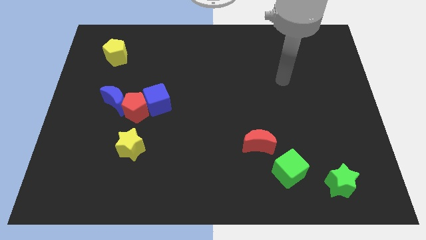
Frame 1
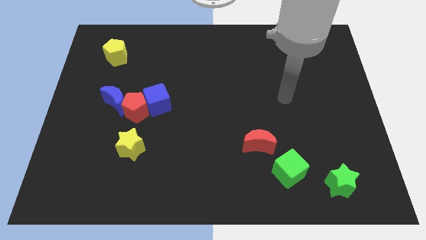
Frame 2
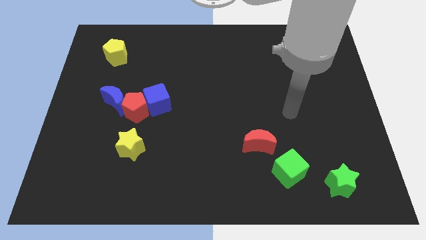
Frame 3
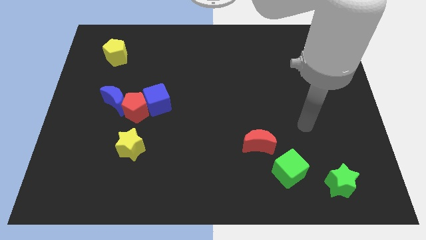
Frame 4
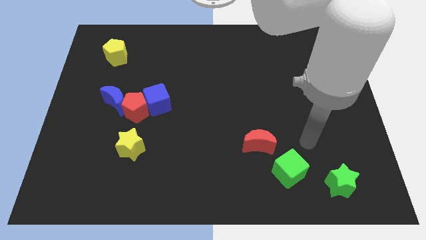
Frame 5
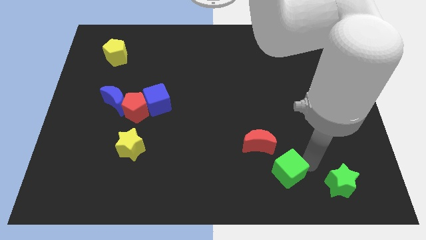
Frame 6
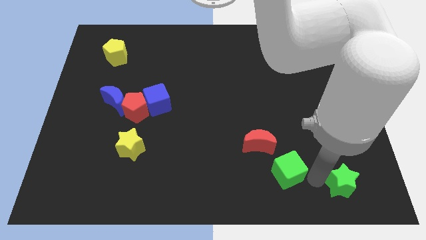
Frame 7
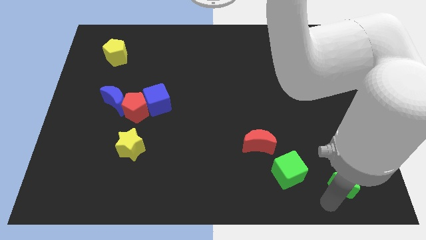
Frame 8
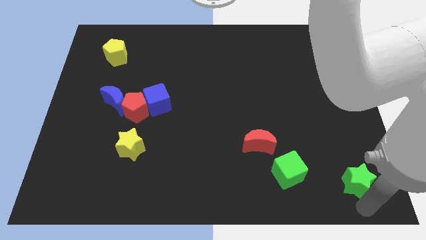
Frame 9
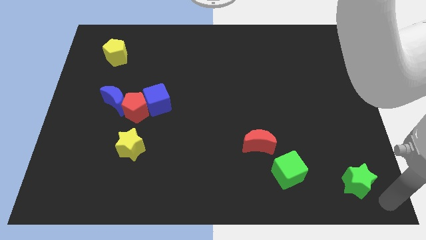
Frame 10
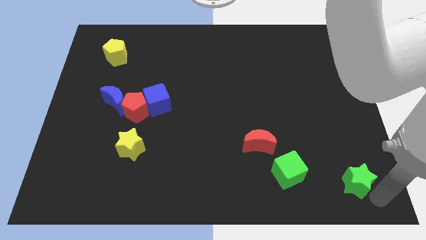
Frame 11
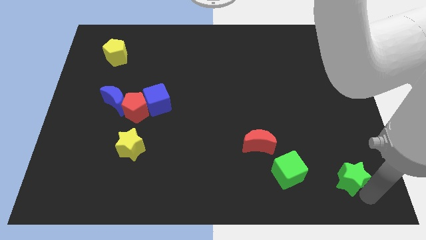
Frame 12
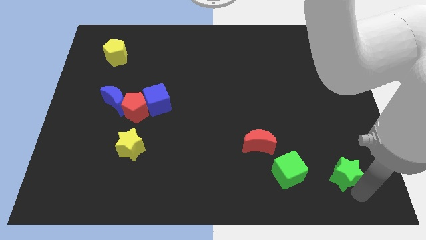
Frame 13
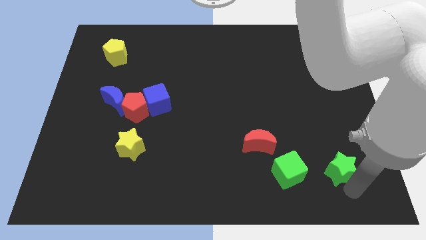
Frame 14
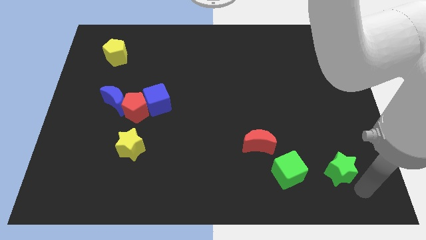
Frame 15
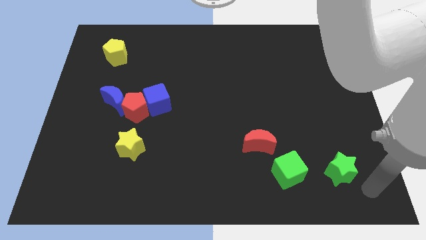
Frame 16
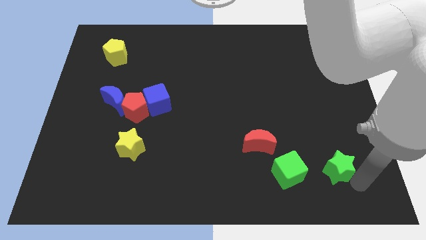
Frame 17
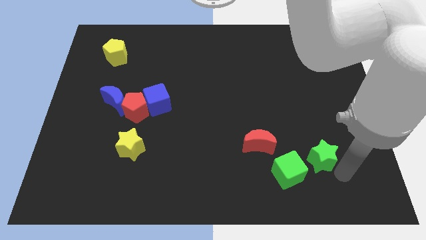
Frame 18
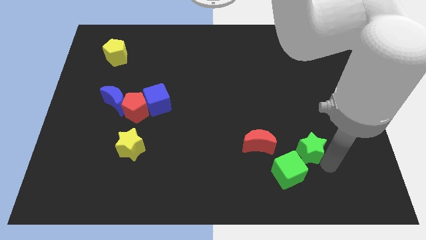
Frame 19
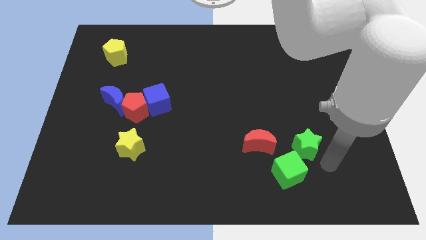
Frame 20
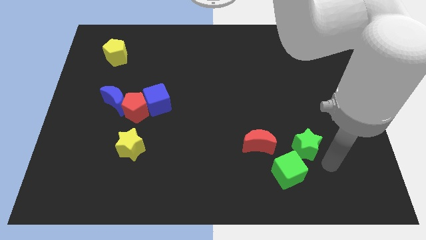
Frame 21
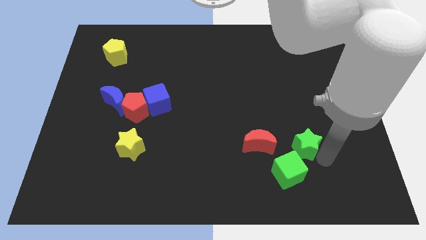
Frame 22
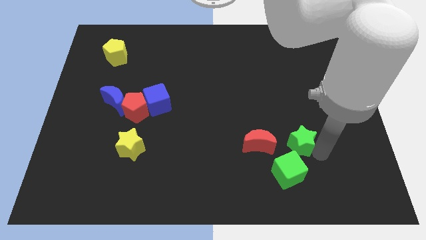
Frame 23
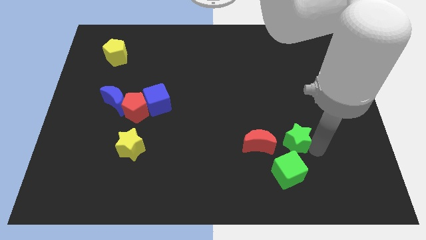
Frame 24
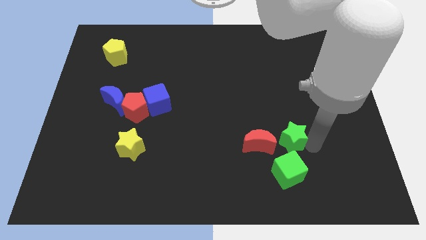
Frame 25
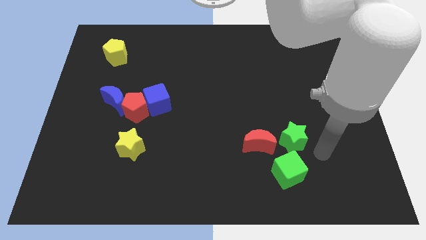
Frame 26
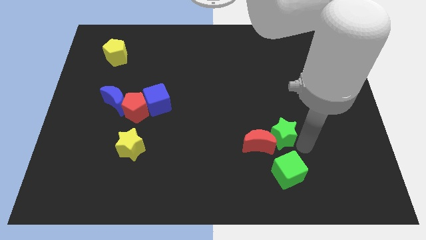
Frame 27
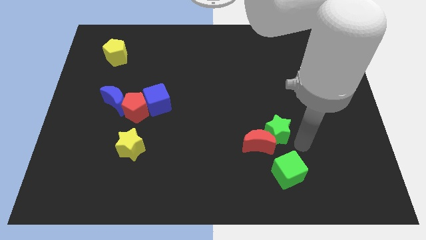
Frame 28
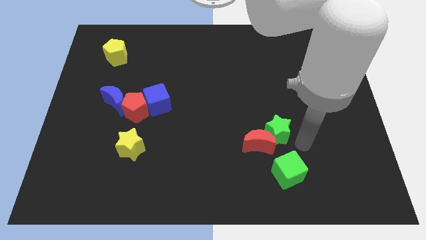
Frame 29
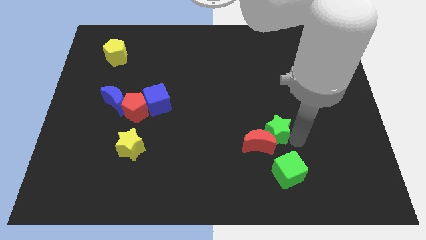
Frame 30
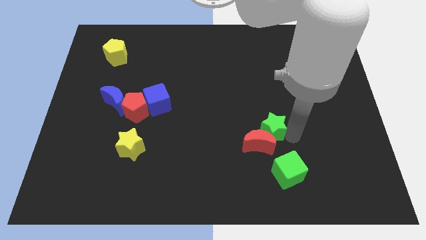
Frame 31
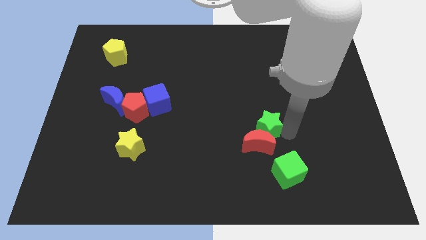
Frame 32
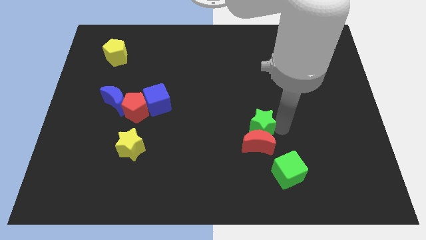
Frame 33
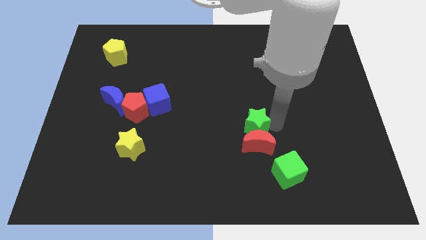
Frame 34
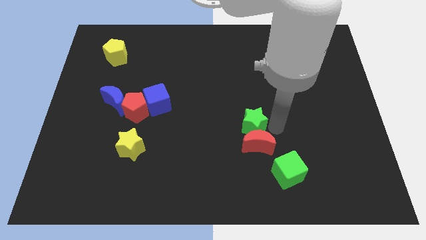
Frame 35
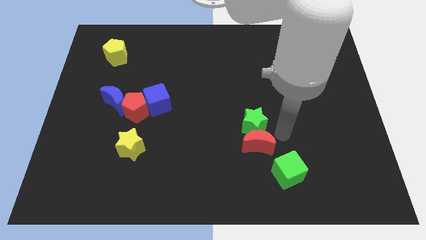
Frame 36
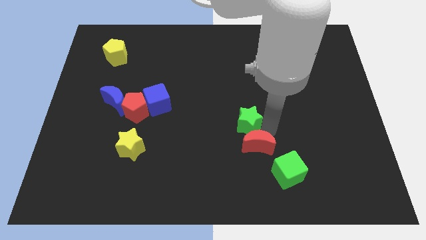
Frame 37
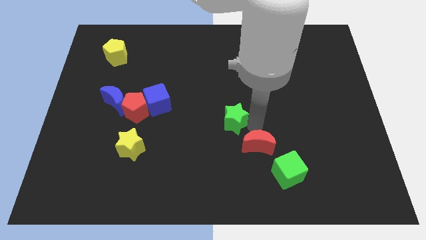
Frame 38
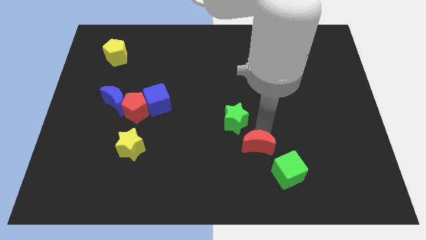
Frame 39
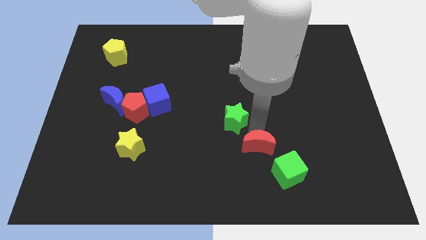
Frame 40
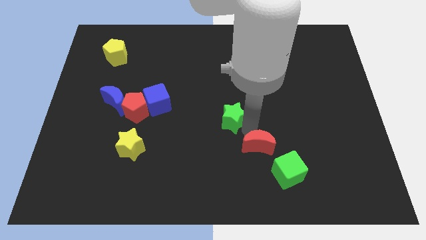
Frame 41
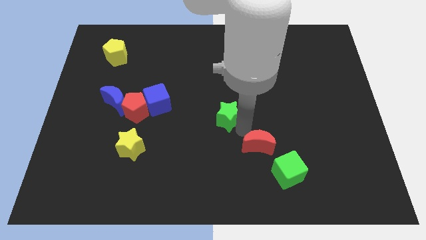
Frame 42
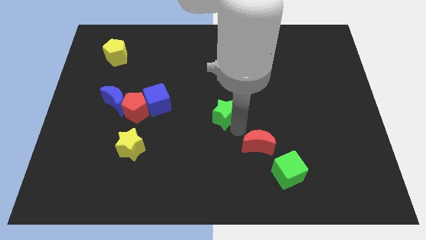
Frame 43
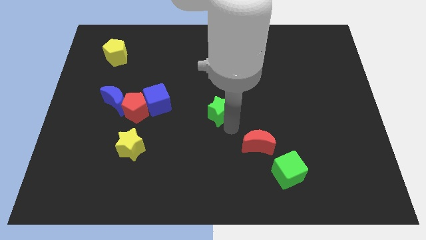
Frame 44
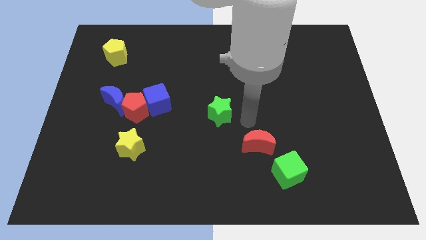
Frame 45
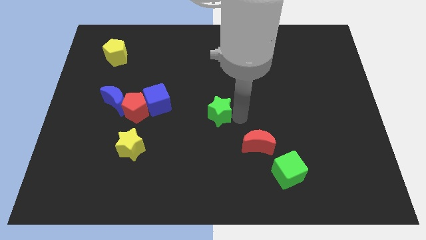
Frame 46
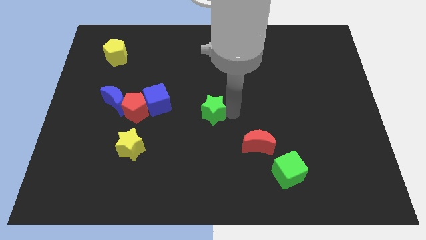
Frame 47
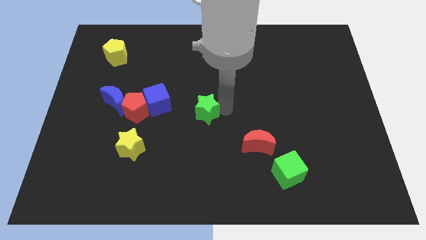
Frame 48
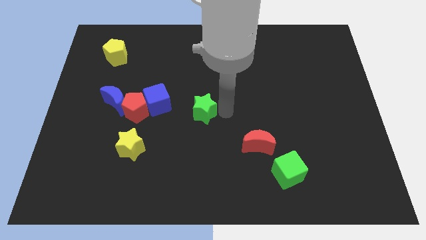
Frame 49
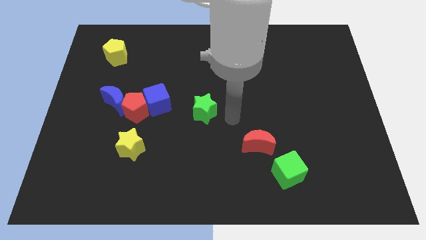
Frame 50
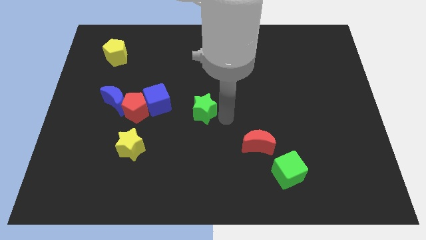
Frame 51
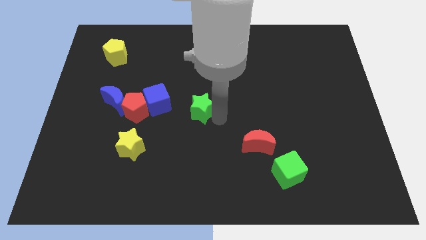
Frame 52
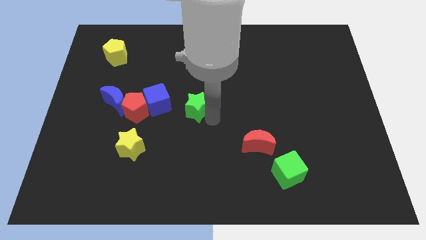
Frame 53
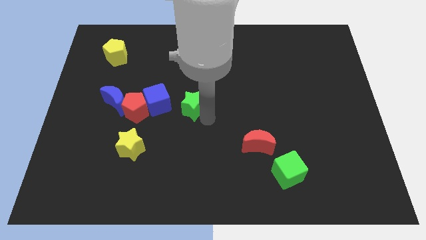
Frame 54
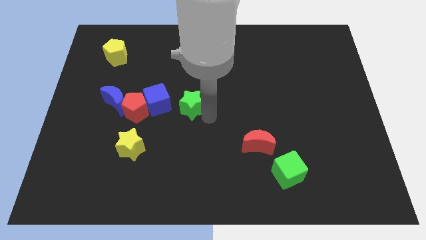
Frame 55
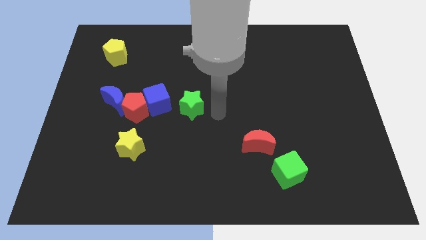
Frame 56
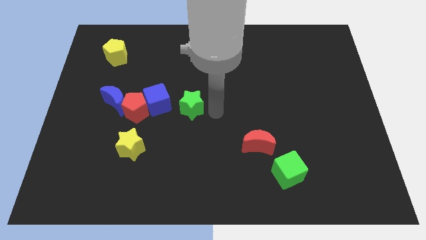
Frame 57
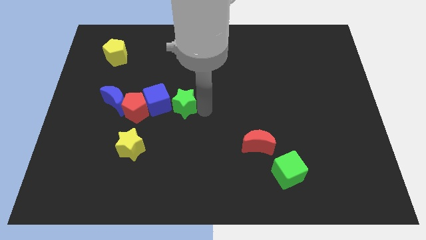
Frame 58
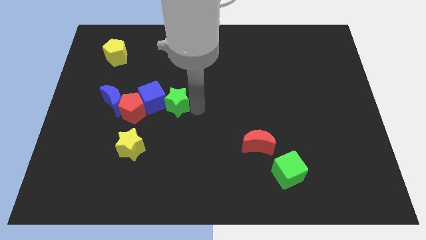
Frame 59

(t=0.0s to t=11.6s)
slide the green star next to the blue cube

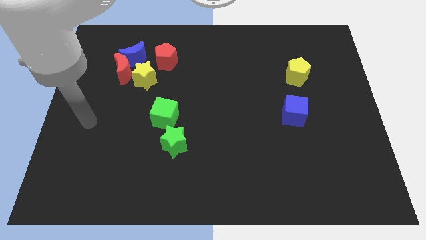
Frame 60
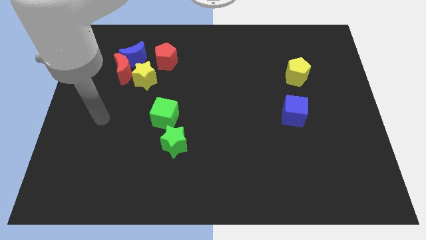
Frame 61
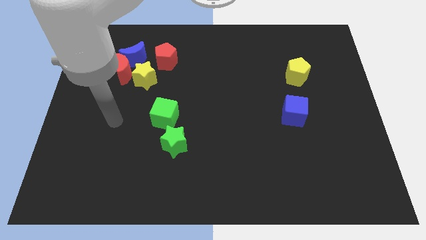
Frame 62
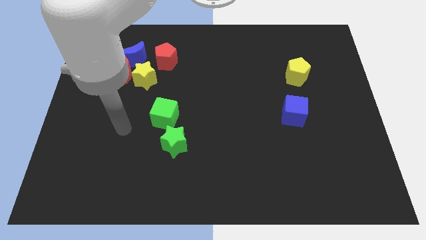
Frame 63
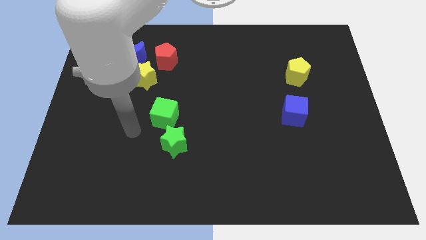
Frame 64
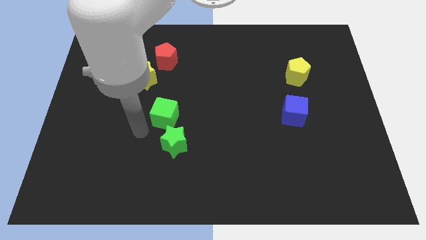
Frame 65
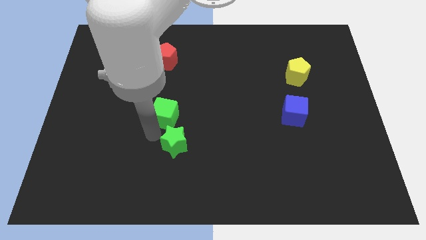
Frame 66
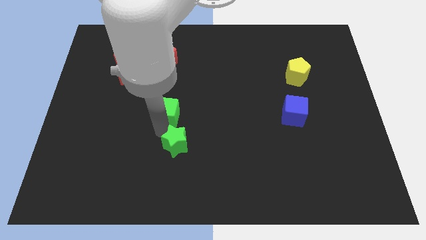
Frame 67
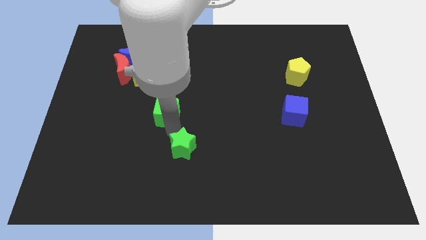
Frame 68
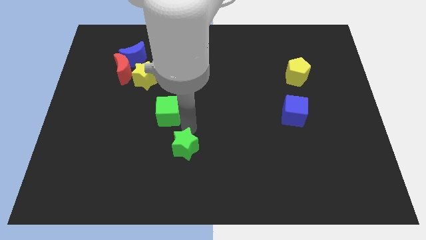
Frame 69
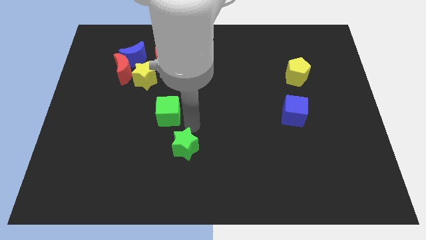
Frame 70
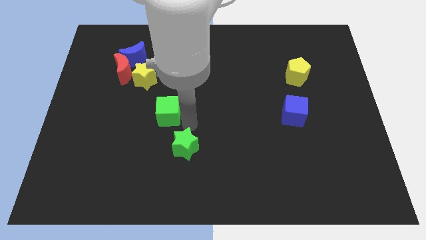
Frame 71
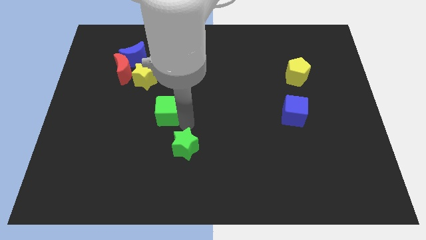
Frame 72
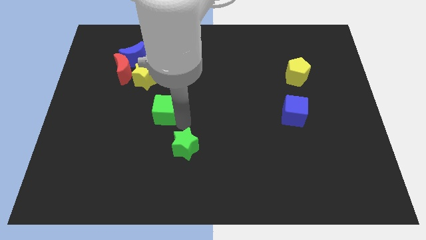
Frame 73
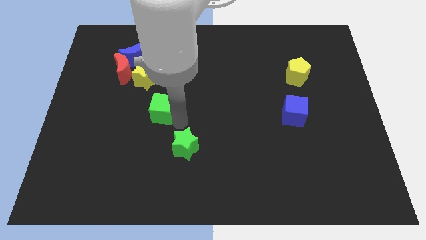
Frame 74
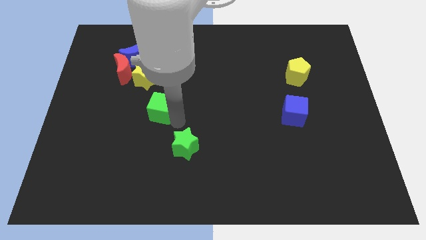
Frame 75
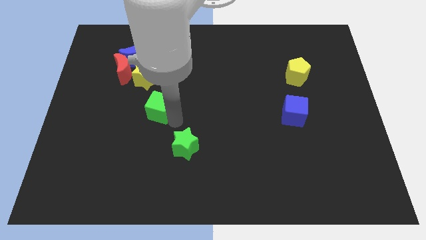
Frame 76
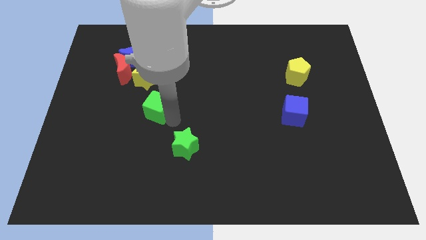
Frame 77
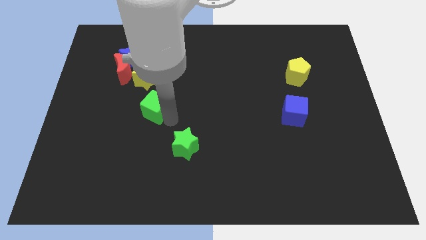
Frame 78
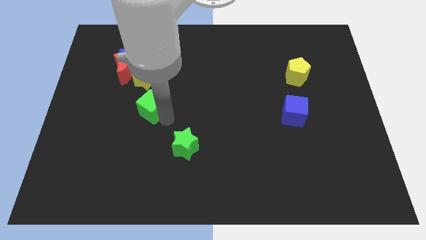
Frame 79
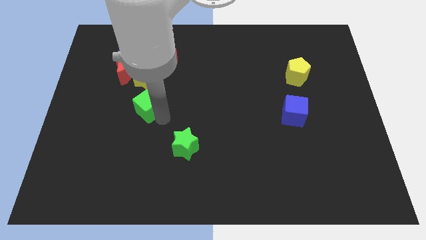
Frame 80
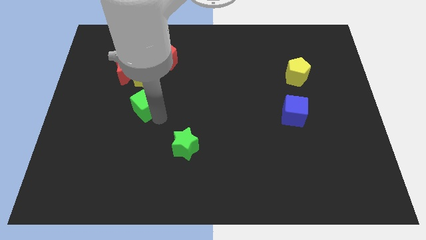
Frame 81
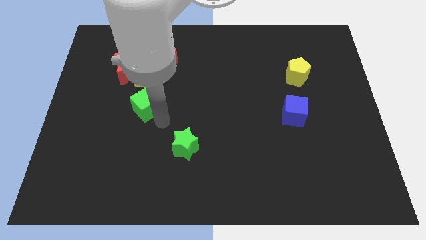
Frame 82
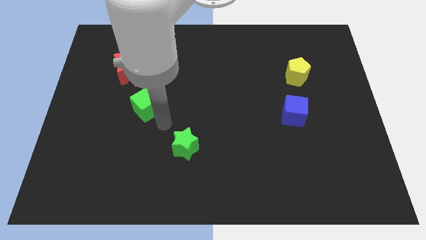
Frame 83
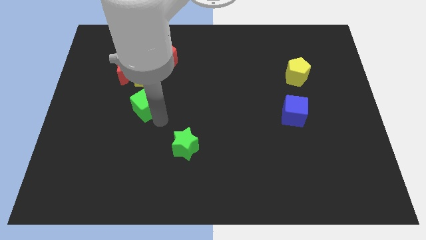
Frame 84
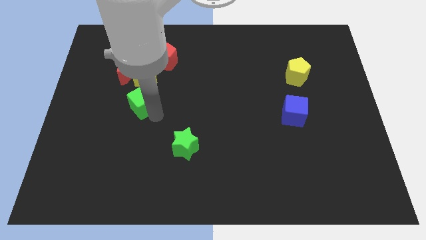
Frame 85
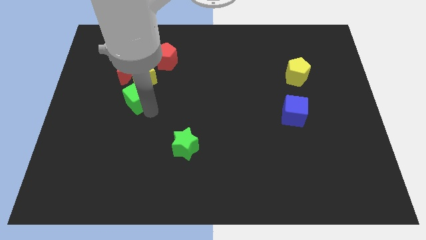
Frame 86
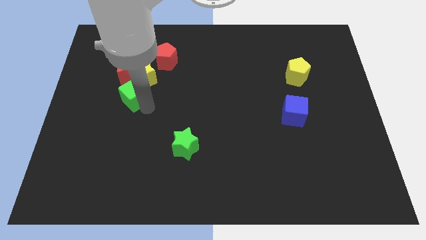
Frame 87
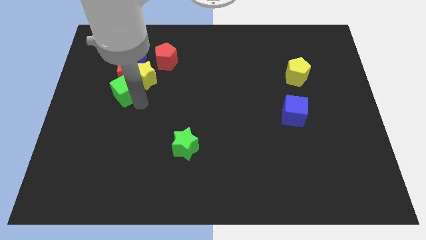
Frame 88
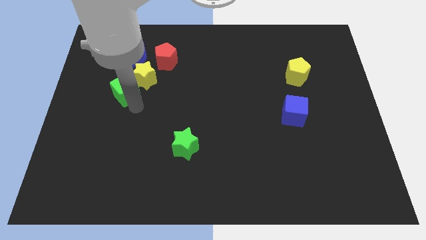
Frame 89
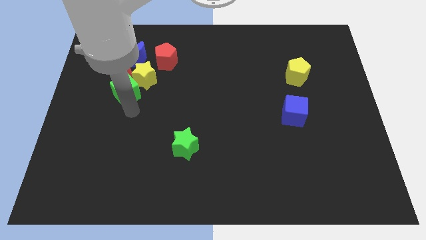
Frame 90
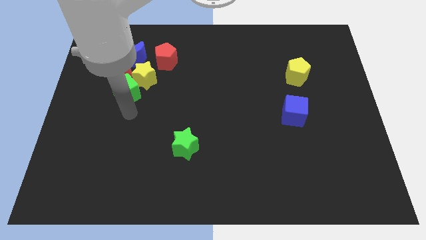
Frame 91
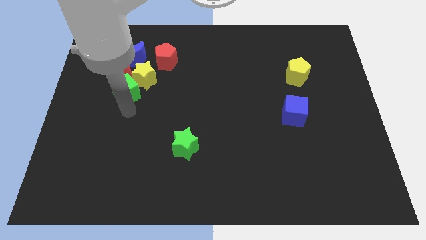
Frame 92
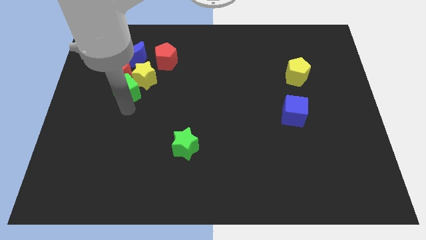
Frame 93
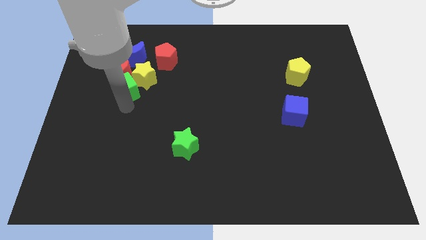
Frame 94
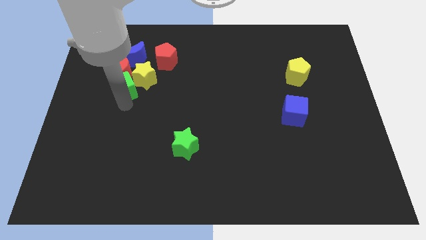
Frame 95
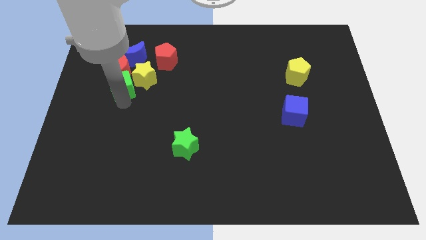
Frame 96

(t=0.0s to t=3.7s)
push the green cube close to the red moon
